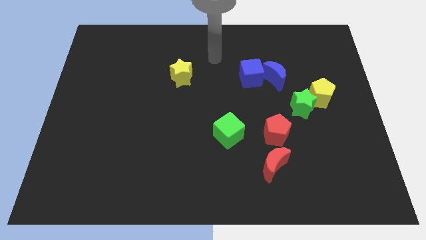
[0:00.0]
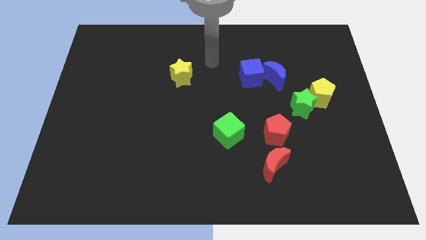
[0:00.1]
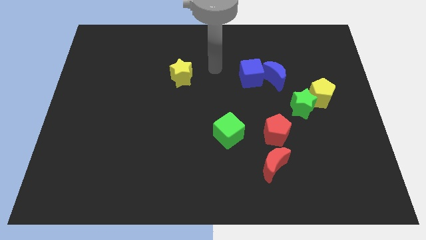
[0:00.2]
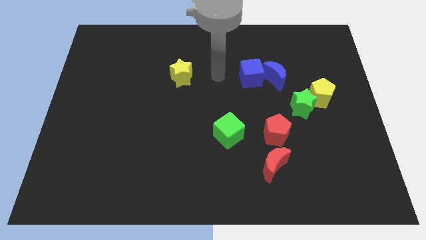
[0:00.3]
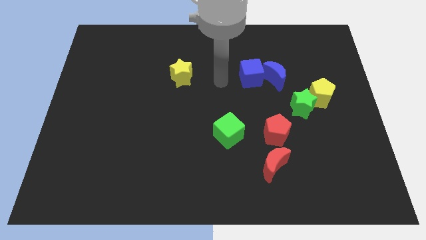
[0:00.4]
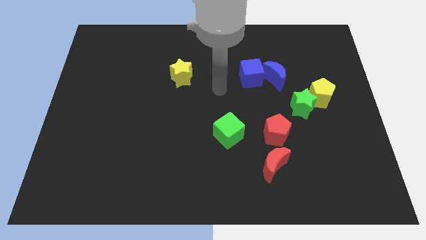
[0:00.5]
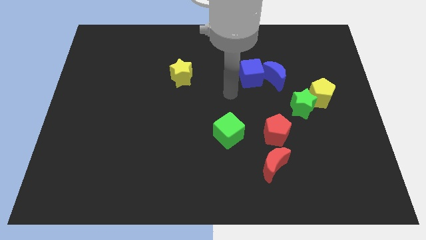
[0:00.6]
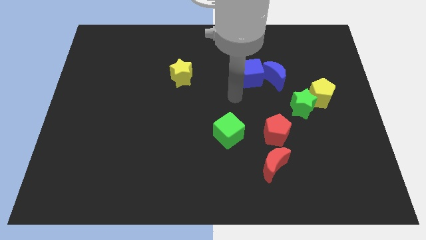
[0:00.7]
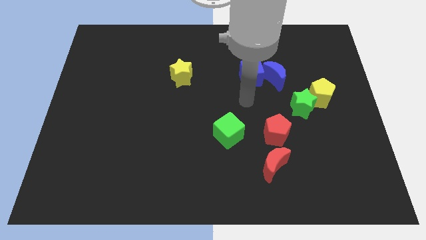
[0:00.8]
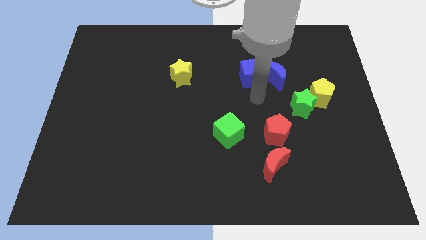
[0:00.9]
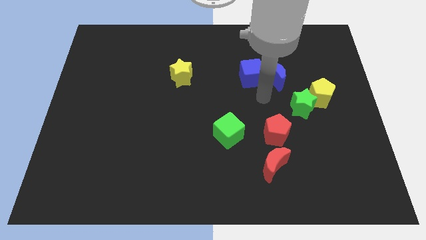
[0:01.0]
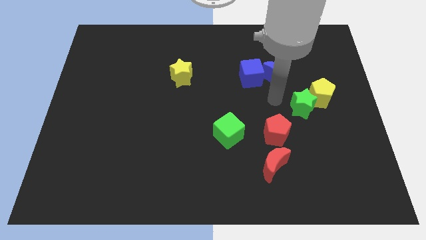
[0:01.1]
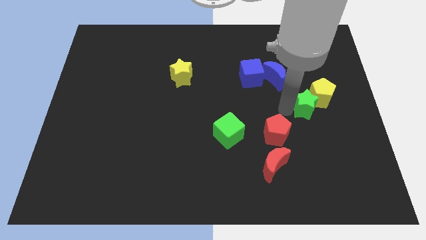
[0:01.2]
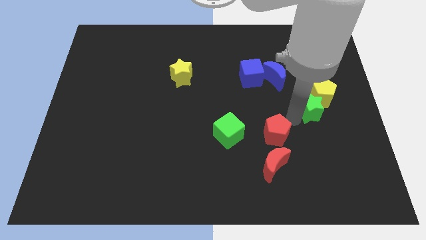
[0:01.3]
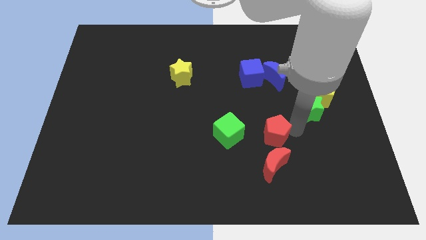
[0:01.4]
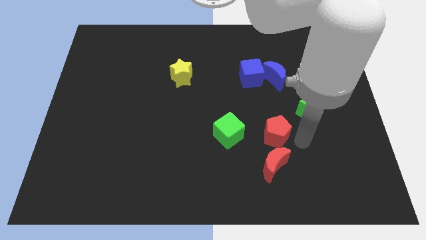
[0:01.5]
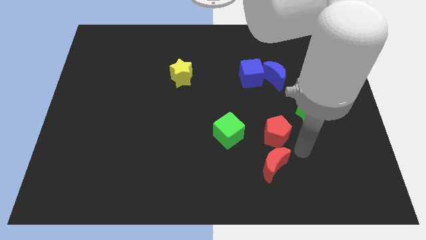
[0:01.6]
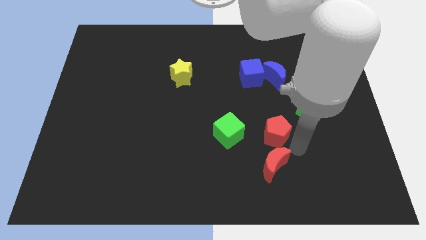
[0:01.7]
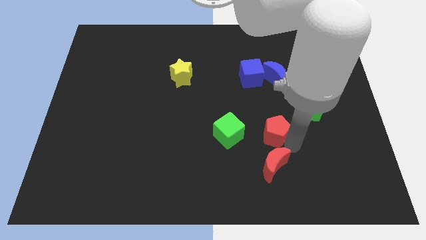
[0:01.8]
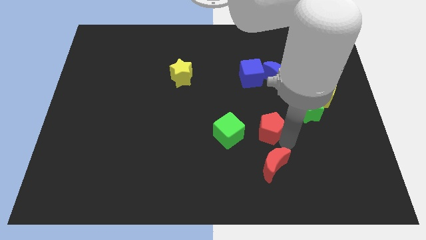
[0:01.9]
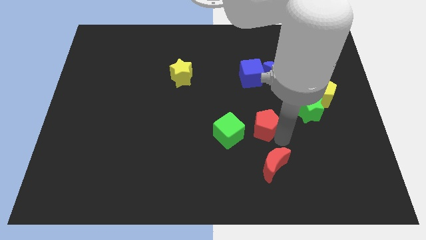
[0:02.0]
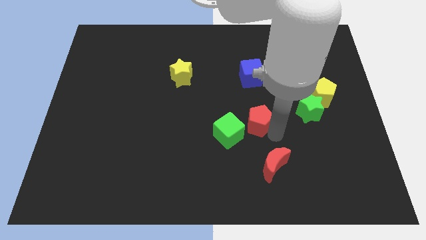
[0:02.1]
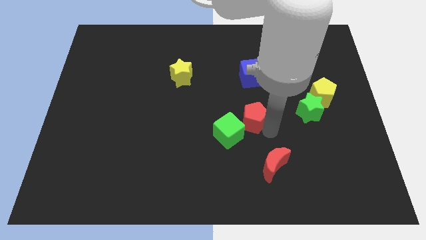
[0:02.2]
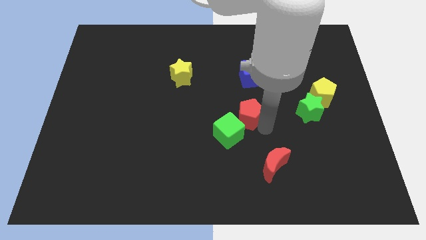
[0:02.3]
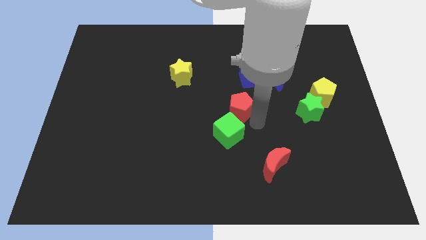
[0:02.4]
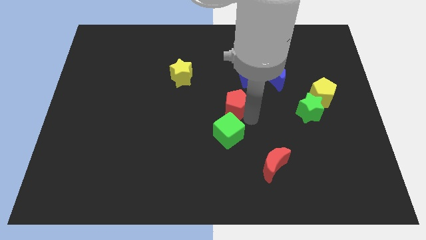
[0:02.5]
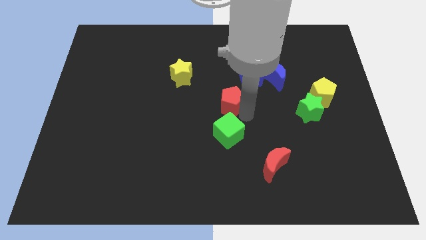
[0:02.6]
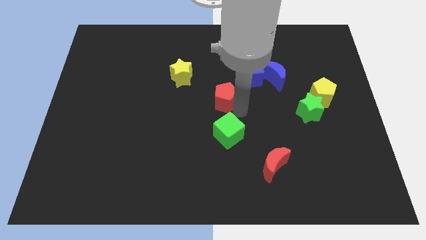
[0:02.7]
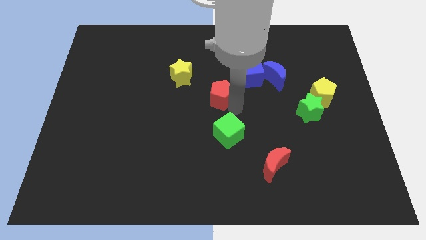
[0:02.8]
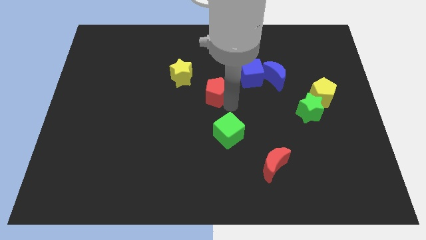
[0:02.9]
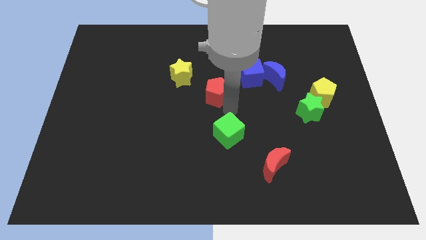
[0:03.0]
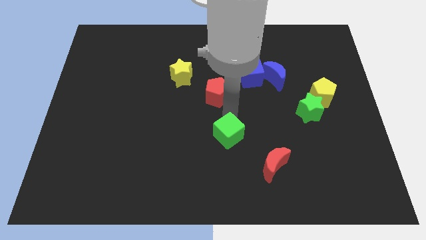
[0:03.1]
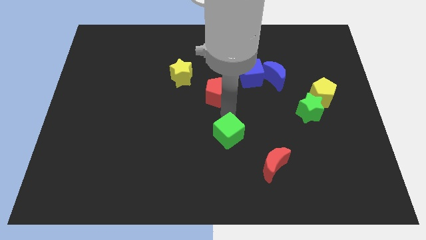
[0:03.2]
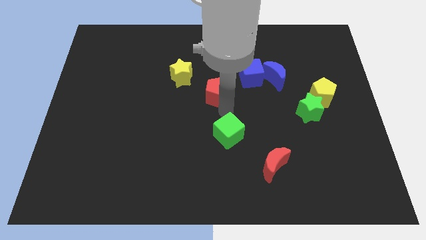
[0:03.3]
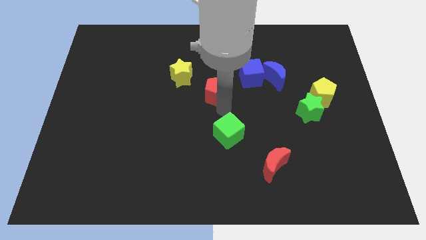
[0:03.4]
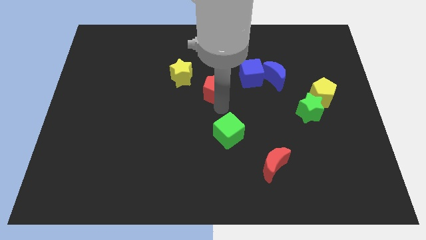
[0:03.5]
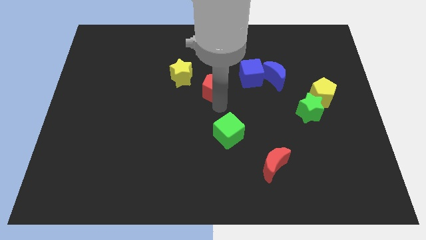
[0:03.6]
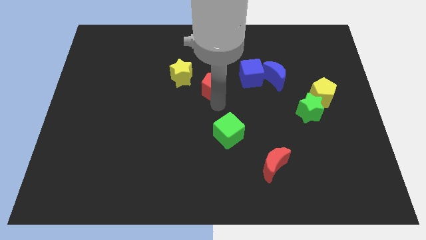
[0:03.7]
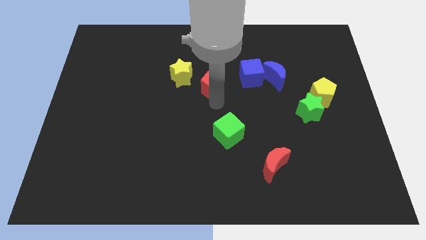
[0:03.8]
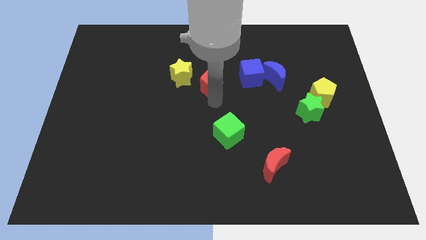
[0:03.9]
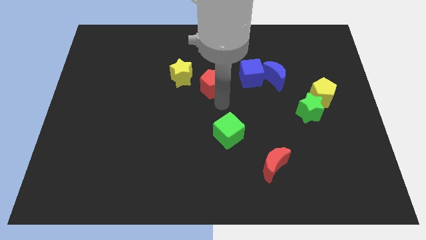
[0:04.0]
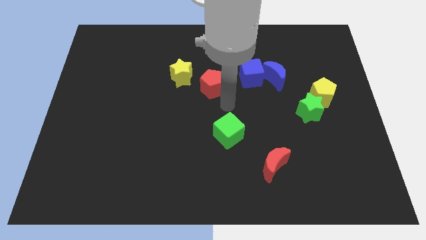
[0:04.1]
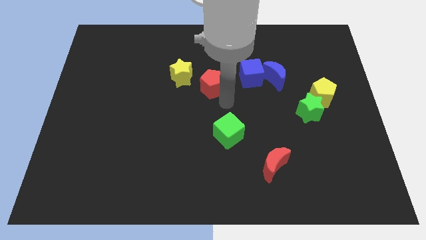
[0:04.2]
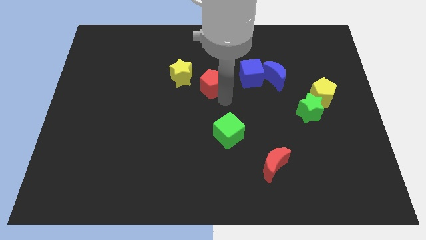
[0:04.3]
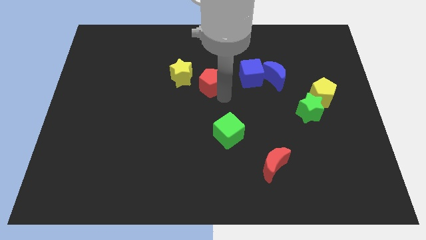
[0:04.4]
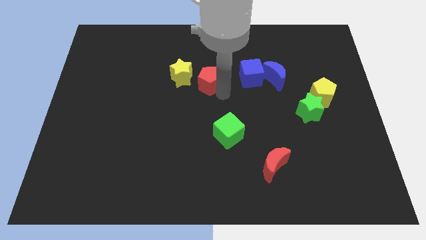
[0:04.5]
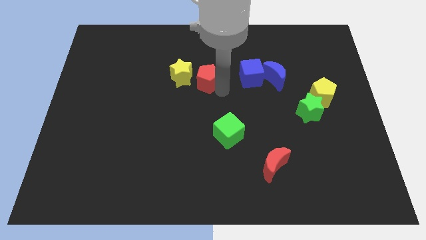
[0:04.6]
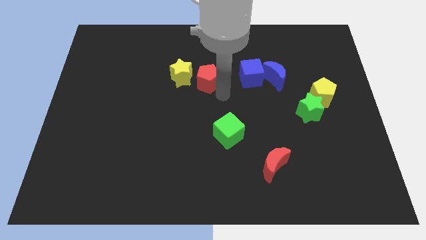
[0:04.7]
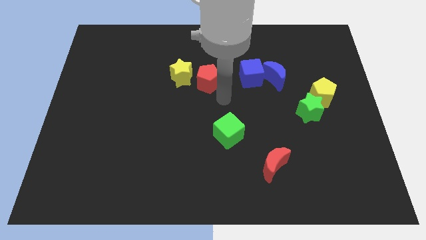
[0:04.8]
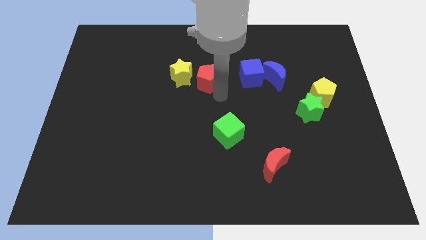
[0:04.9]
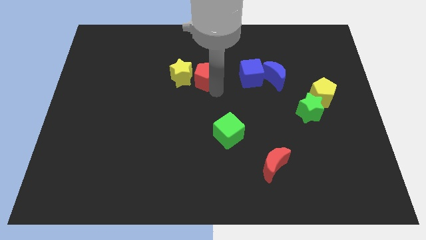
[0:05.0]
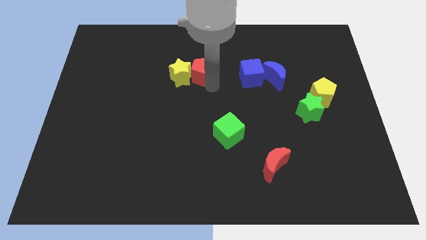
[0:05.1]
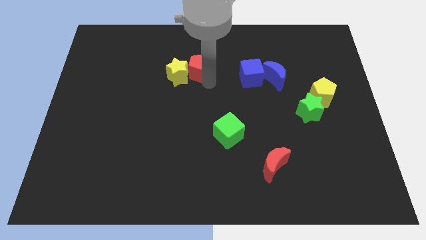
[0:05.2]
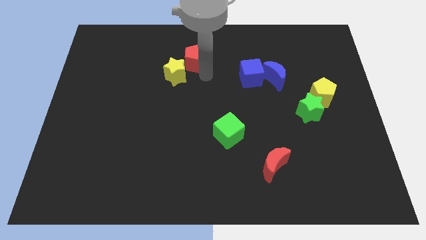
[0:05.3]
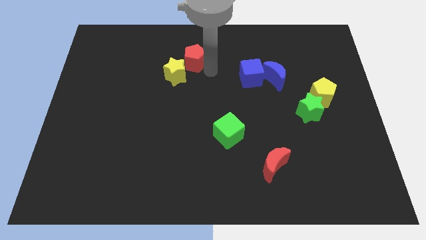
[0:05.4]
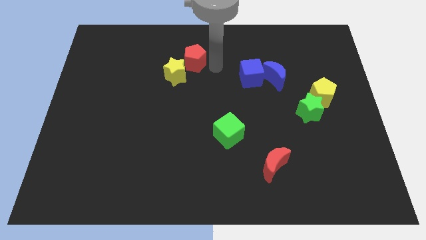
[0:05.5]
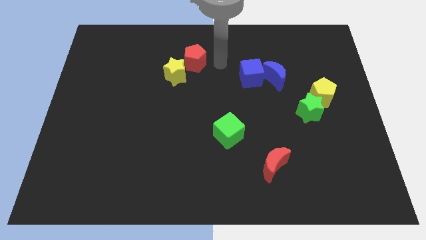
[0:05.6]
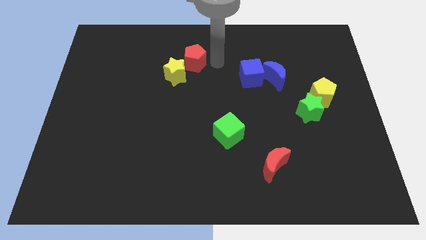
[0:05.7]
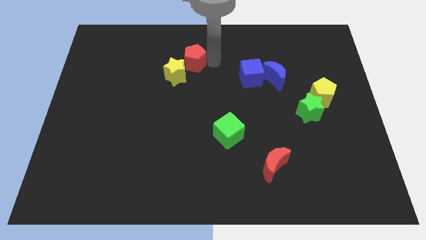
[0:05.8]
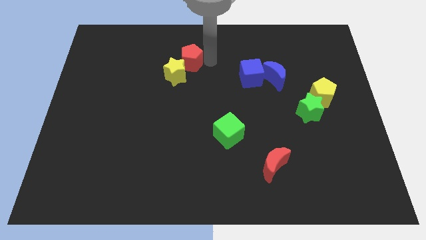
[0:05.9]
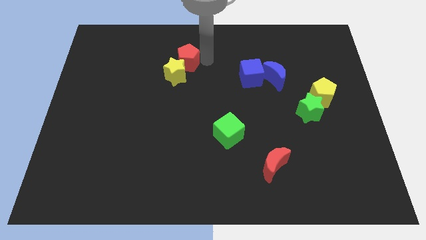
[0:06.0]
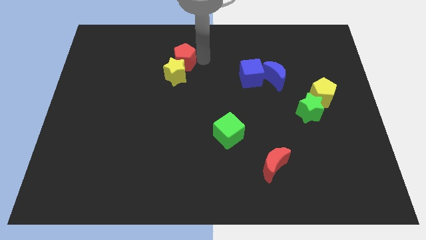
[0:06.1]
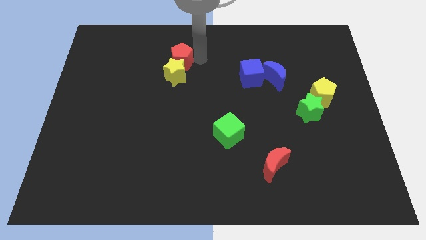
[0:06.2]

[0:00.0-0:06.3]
put the red pentagon to the top left of the yellow star

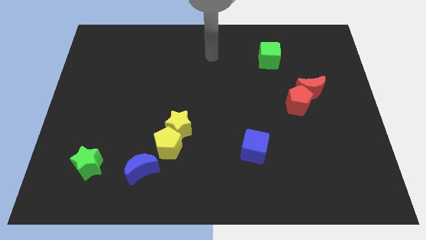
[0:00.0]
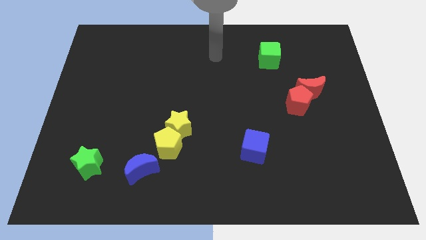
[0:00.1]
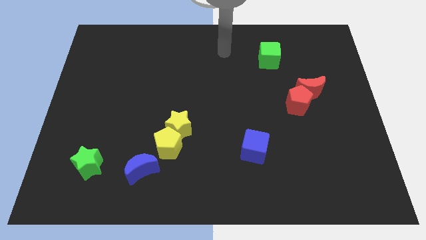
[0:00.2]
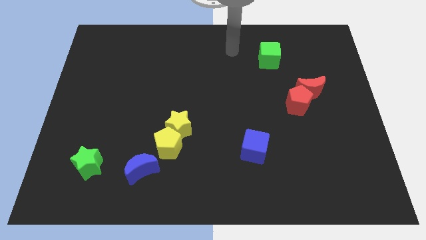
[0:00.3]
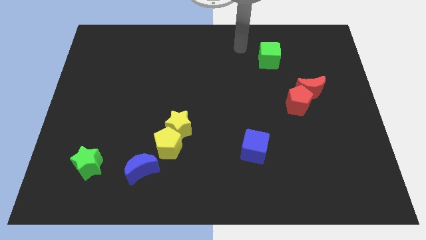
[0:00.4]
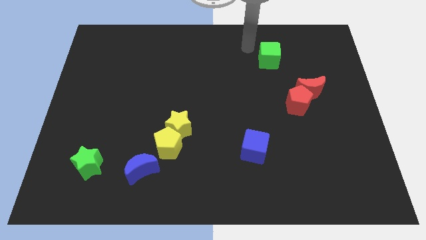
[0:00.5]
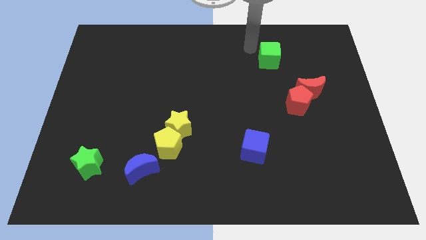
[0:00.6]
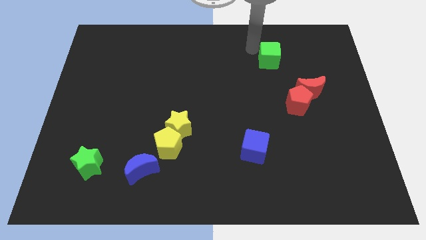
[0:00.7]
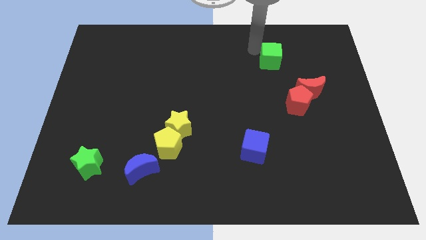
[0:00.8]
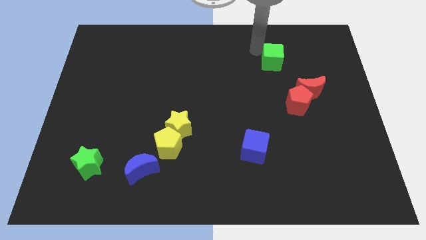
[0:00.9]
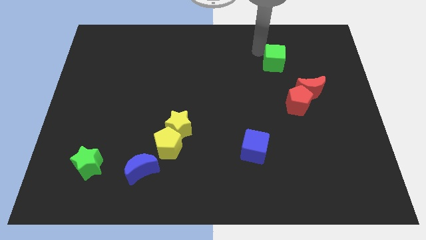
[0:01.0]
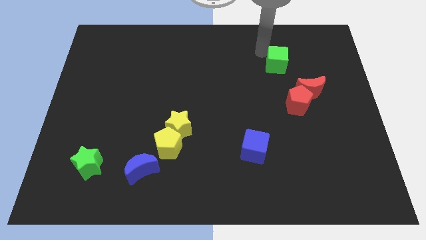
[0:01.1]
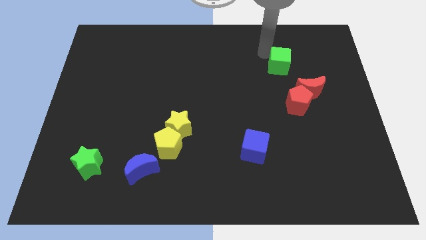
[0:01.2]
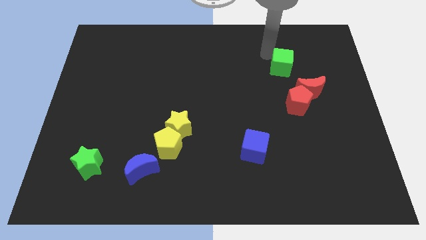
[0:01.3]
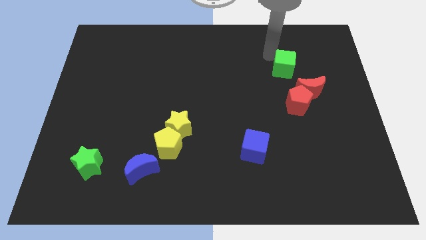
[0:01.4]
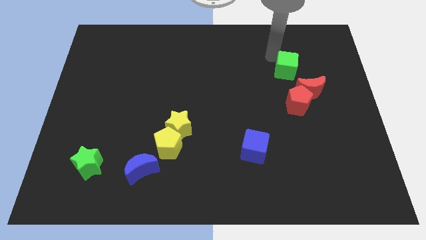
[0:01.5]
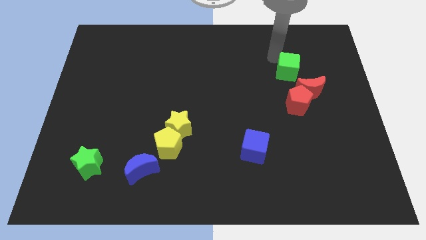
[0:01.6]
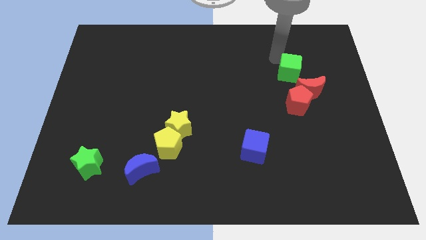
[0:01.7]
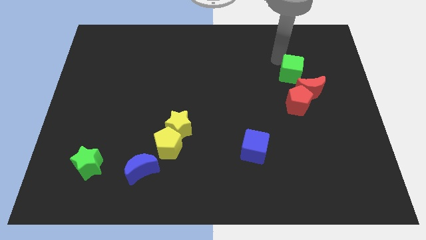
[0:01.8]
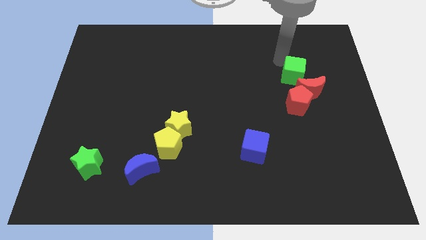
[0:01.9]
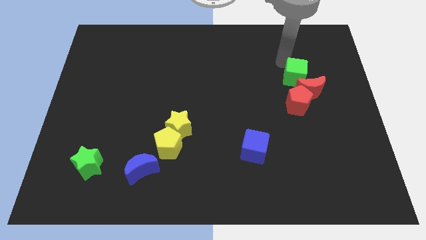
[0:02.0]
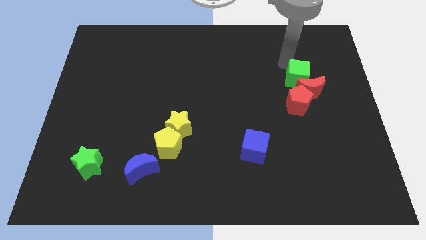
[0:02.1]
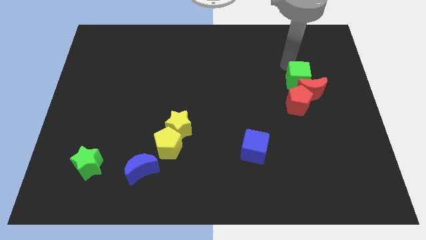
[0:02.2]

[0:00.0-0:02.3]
push the green cube diagonally up and to the right of the red pentagon

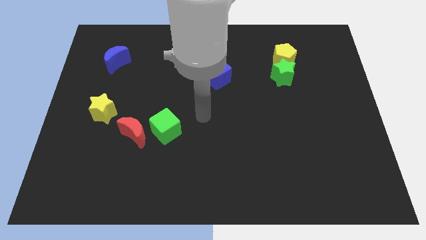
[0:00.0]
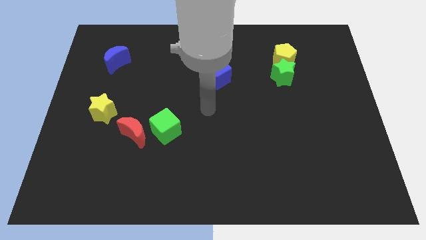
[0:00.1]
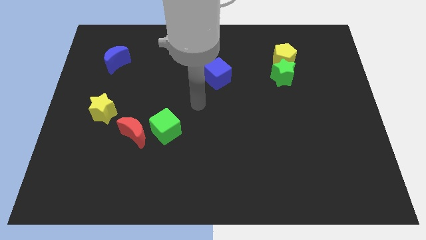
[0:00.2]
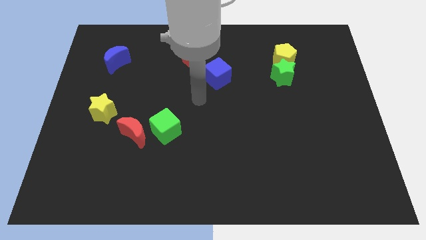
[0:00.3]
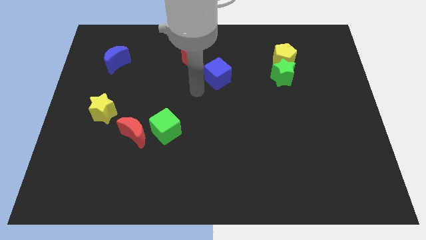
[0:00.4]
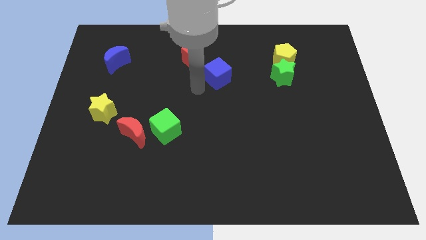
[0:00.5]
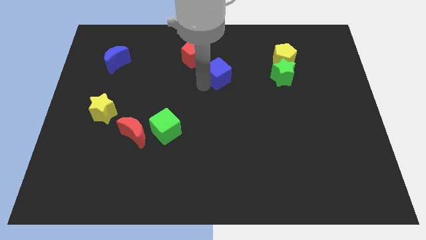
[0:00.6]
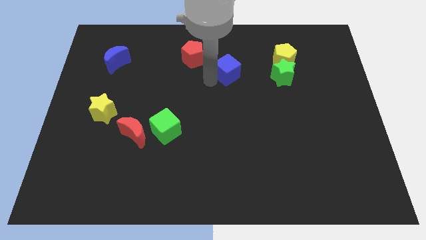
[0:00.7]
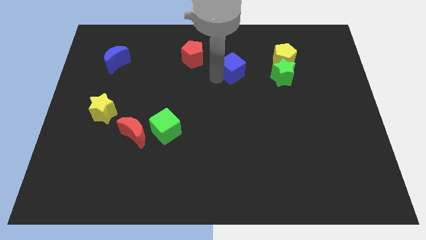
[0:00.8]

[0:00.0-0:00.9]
push the blue cube just left of the yellow pentagon
